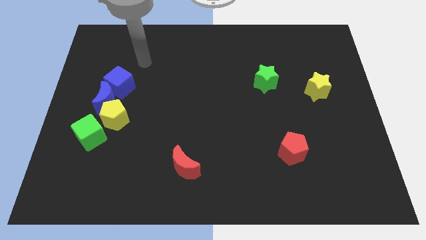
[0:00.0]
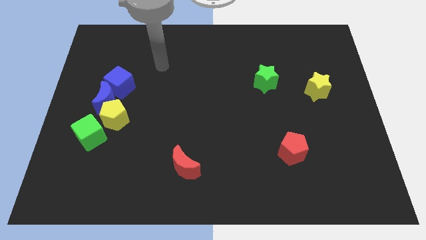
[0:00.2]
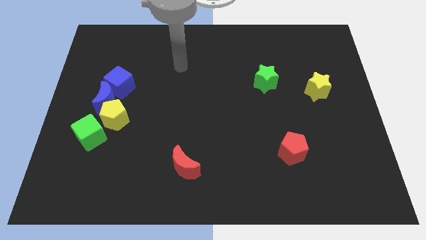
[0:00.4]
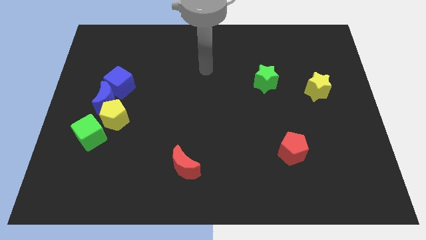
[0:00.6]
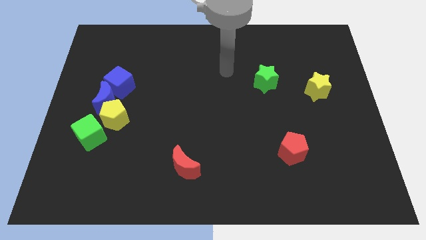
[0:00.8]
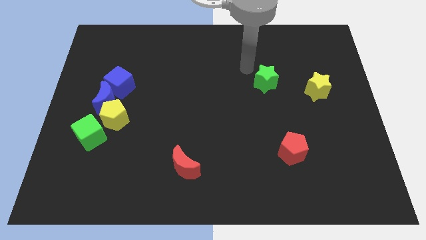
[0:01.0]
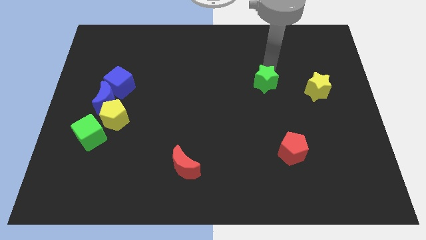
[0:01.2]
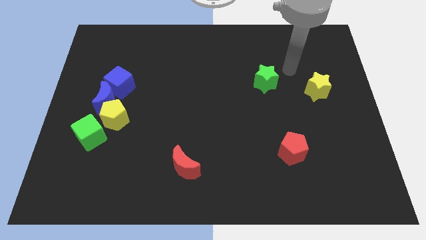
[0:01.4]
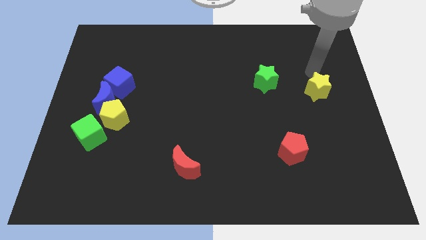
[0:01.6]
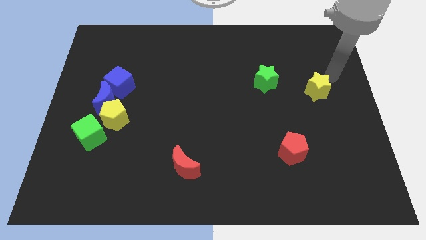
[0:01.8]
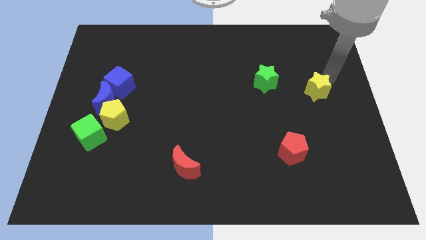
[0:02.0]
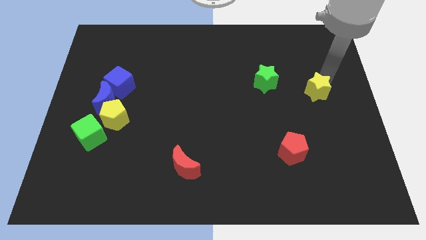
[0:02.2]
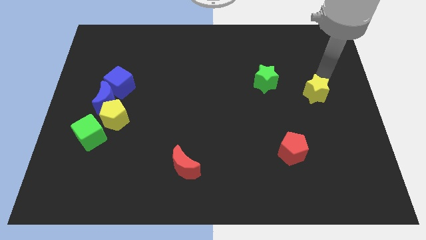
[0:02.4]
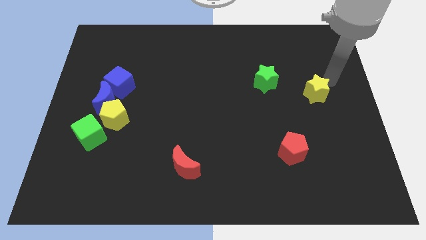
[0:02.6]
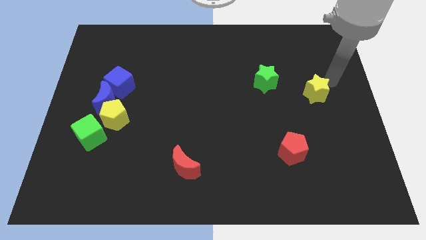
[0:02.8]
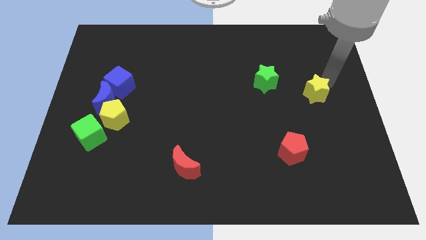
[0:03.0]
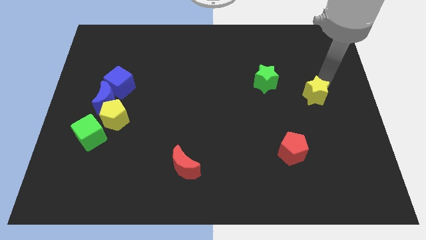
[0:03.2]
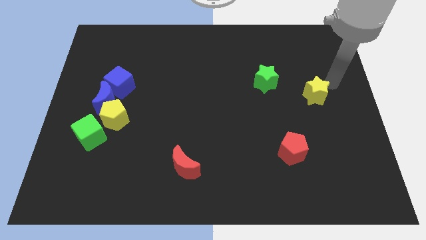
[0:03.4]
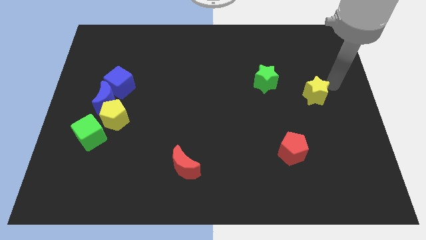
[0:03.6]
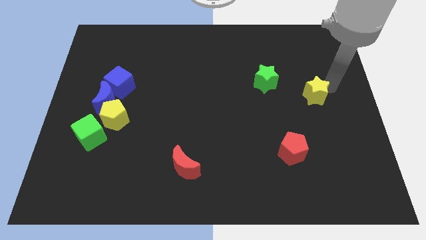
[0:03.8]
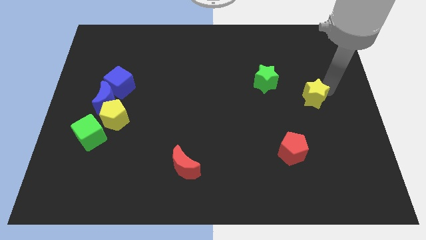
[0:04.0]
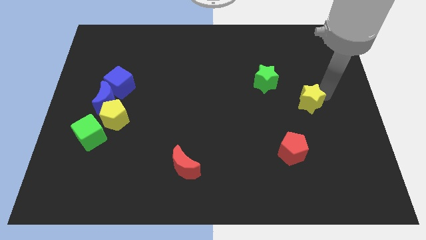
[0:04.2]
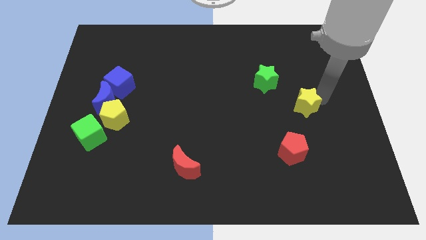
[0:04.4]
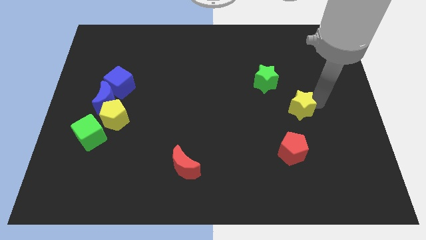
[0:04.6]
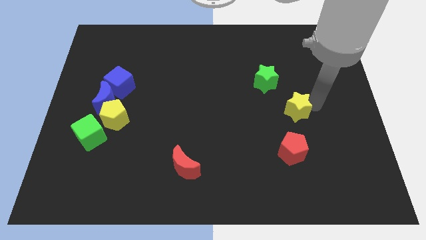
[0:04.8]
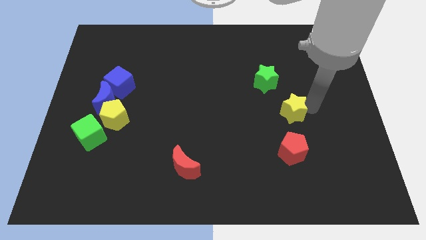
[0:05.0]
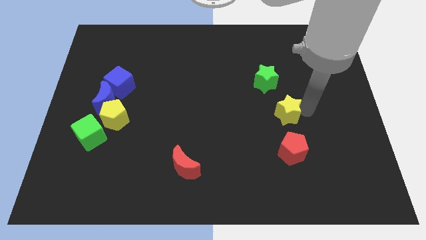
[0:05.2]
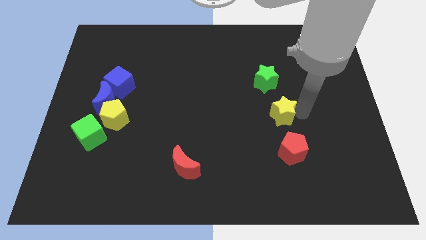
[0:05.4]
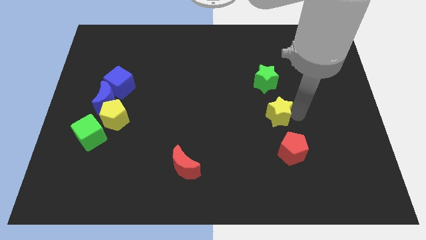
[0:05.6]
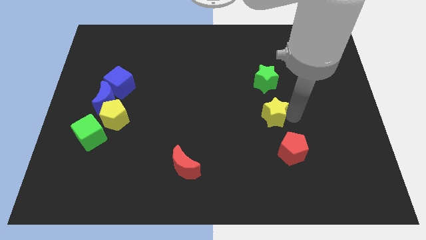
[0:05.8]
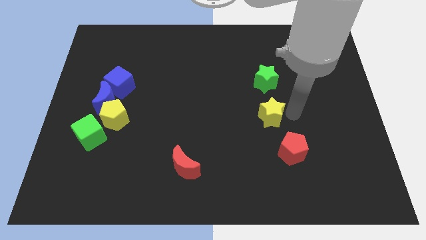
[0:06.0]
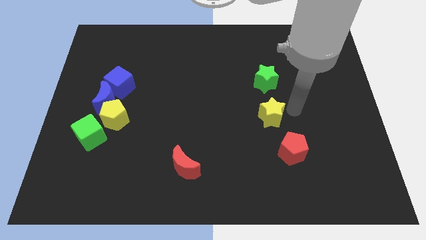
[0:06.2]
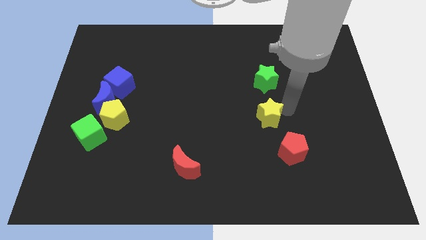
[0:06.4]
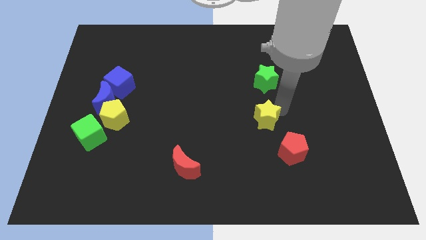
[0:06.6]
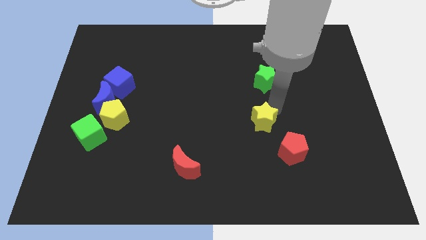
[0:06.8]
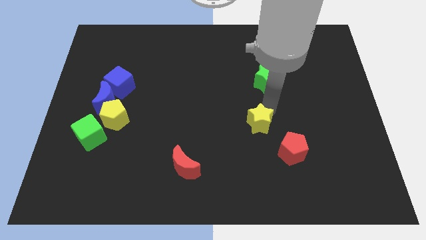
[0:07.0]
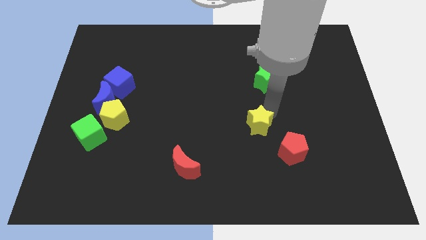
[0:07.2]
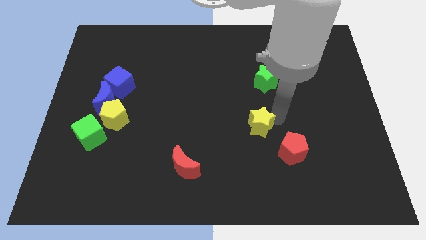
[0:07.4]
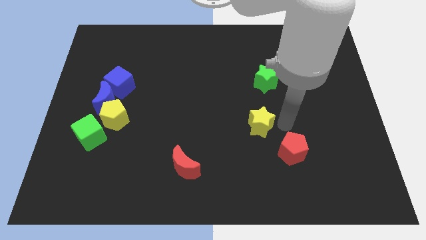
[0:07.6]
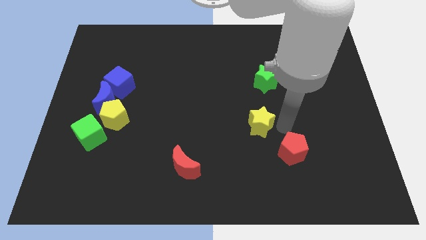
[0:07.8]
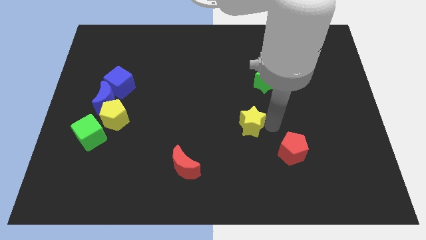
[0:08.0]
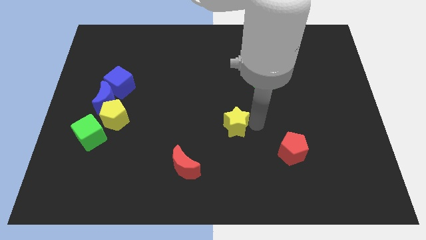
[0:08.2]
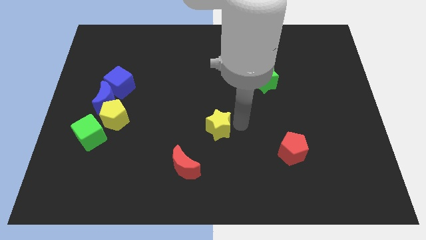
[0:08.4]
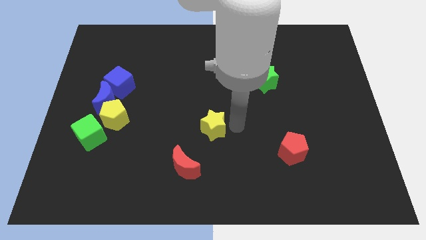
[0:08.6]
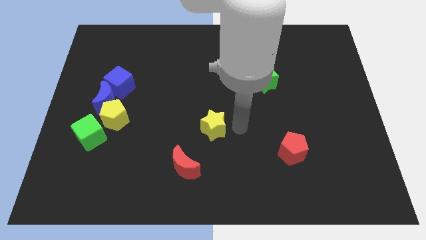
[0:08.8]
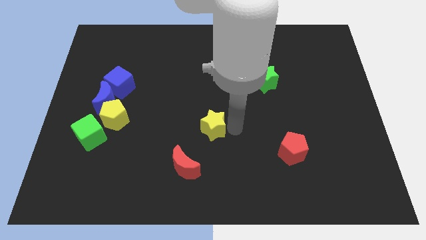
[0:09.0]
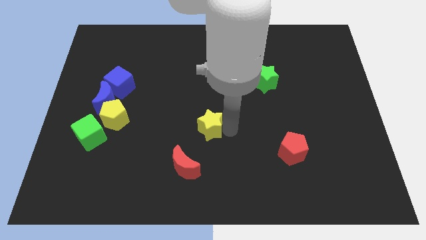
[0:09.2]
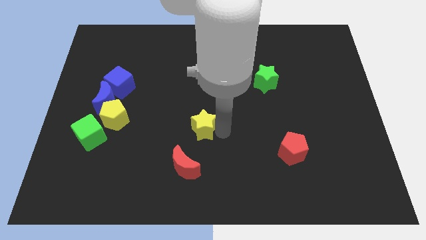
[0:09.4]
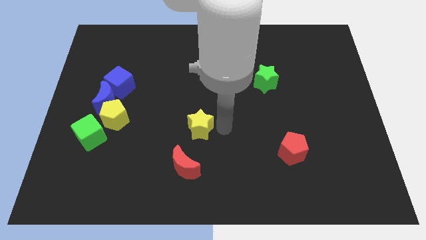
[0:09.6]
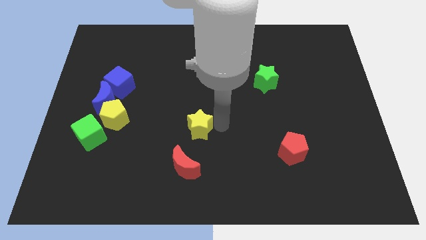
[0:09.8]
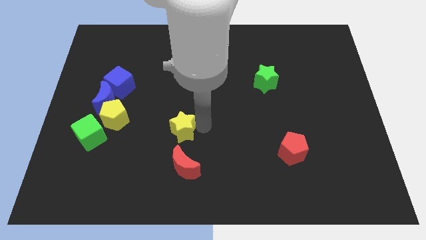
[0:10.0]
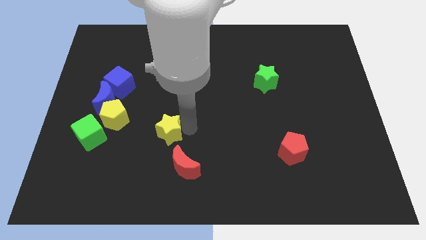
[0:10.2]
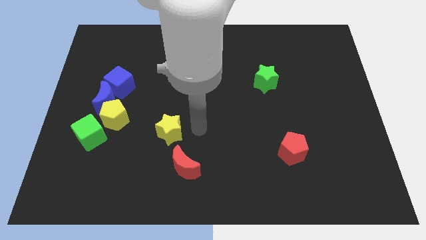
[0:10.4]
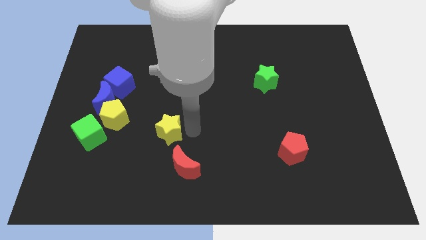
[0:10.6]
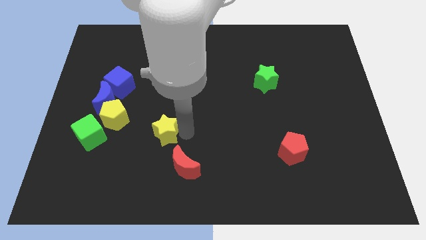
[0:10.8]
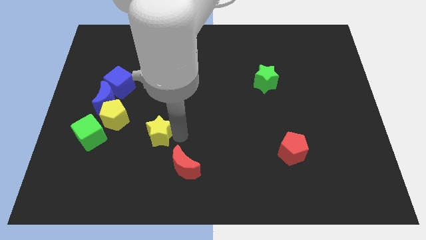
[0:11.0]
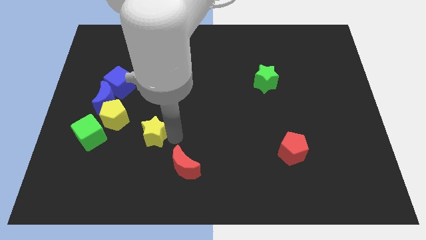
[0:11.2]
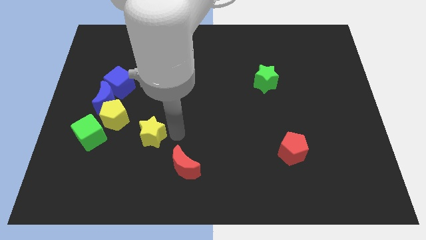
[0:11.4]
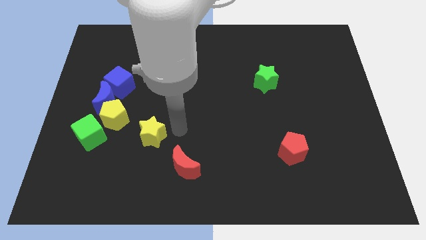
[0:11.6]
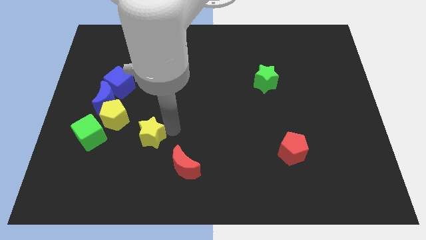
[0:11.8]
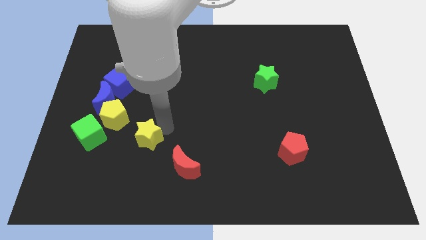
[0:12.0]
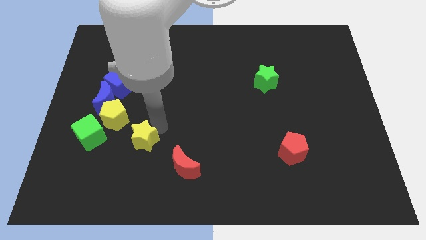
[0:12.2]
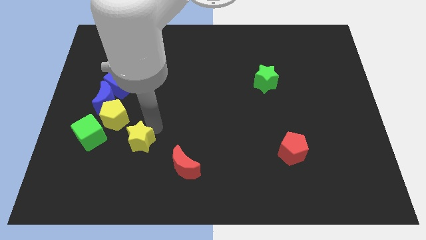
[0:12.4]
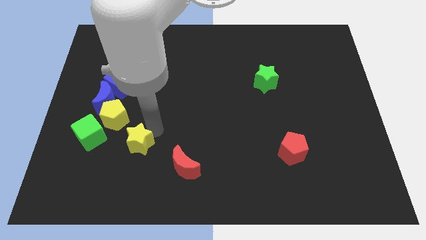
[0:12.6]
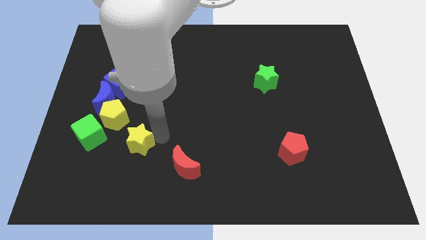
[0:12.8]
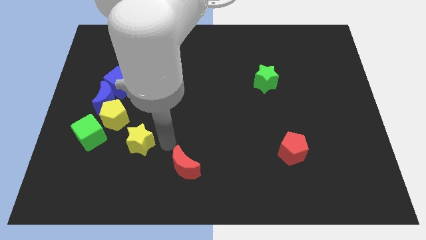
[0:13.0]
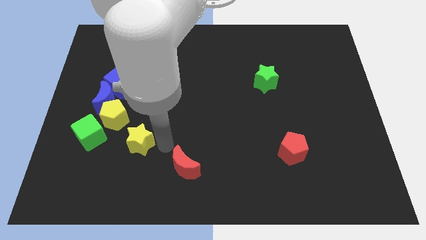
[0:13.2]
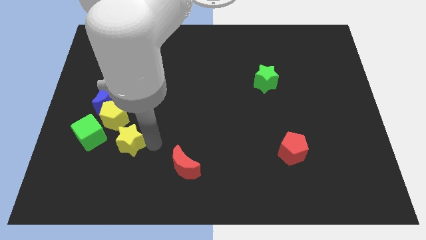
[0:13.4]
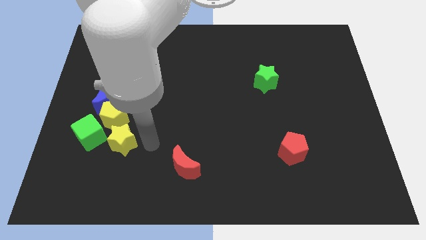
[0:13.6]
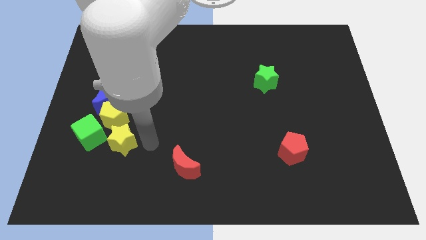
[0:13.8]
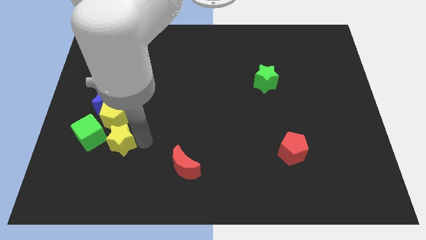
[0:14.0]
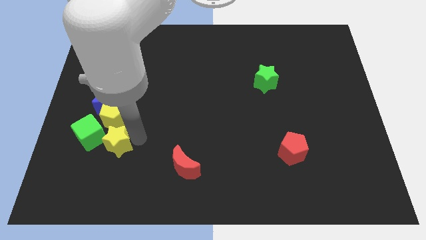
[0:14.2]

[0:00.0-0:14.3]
move the yellow star to the bottom side of the blue moon
